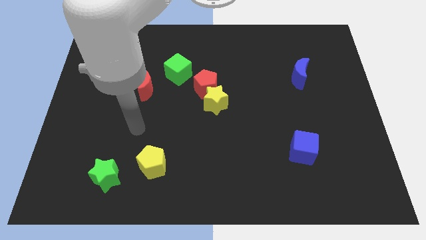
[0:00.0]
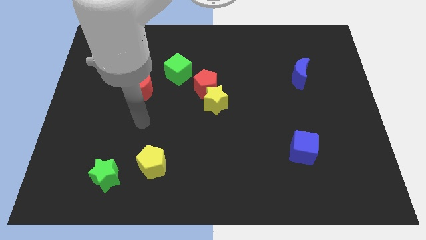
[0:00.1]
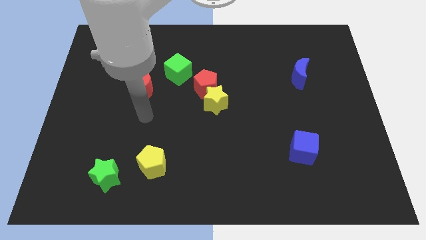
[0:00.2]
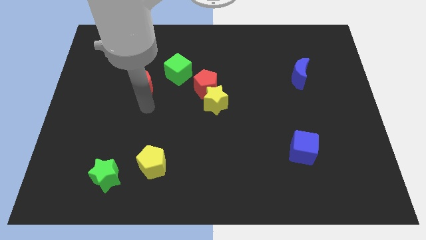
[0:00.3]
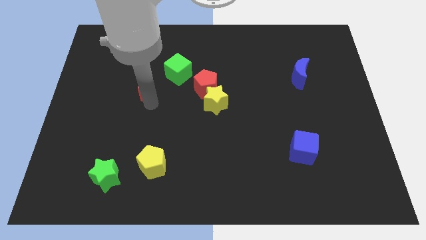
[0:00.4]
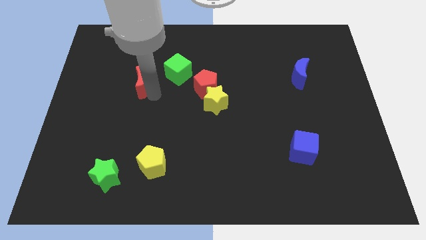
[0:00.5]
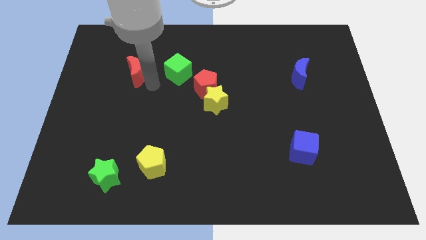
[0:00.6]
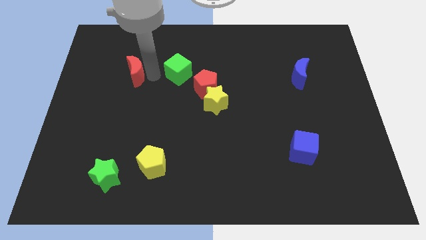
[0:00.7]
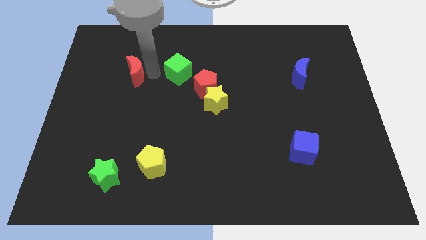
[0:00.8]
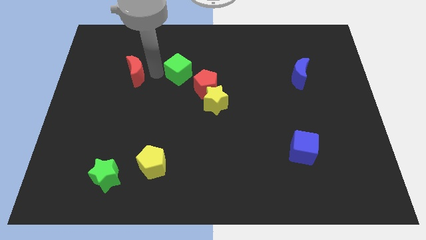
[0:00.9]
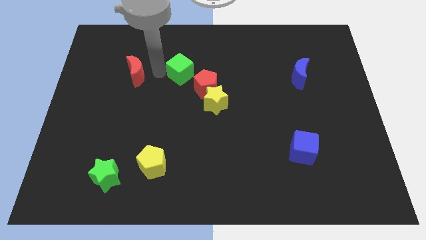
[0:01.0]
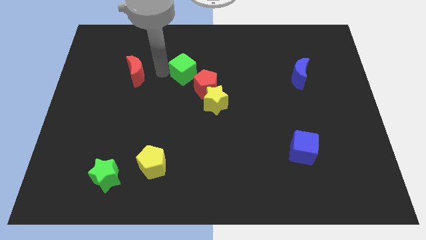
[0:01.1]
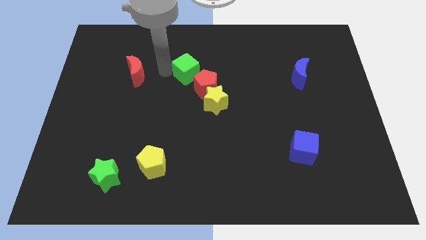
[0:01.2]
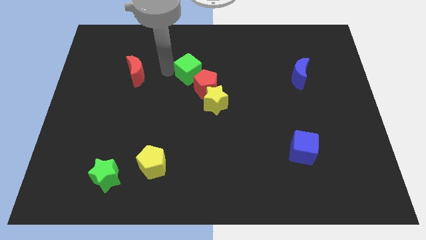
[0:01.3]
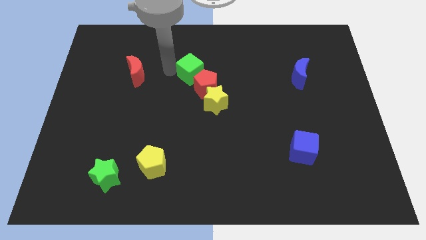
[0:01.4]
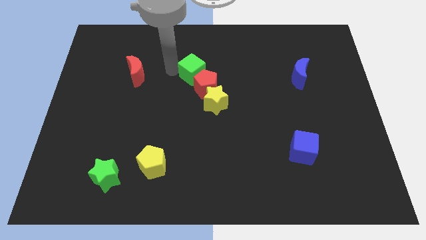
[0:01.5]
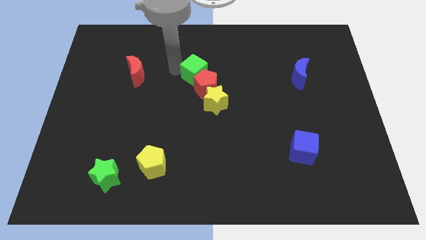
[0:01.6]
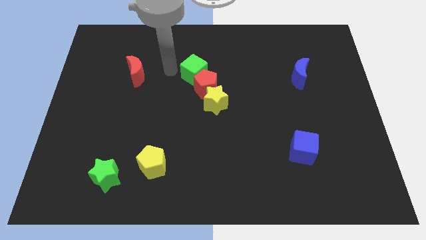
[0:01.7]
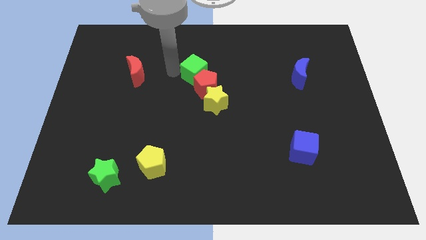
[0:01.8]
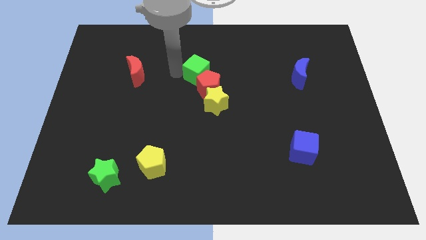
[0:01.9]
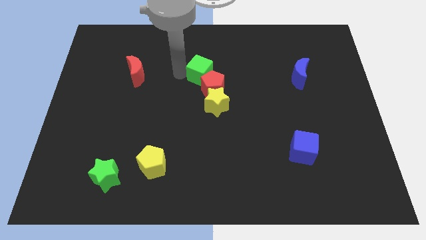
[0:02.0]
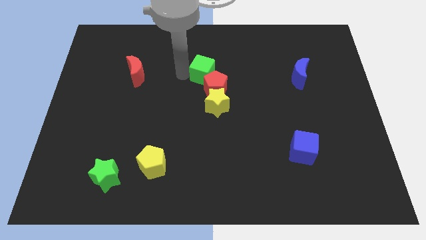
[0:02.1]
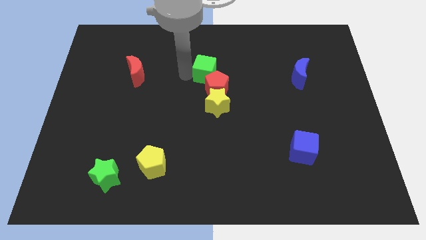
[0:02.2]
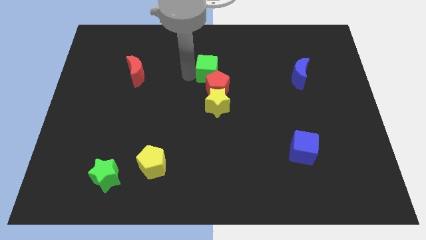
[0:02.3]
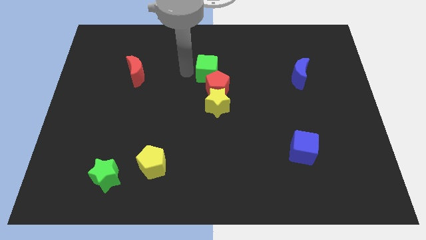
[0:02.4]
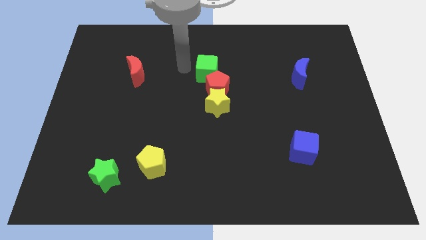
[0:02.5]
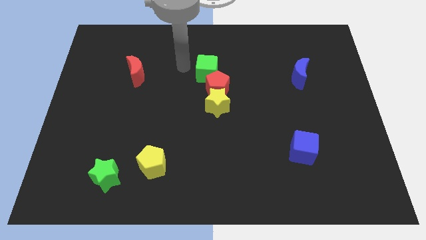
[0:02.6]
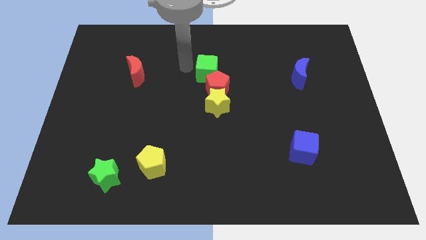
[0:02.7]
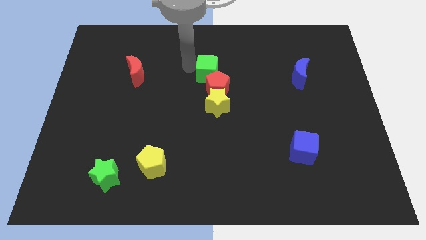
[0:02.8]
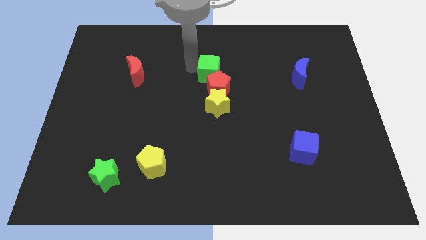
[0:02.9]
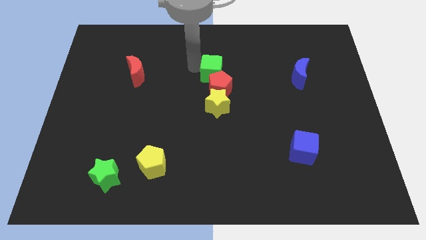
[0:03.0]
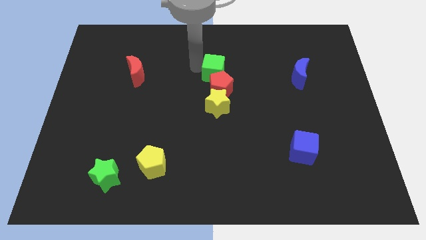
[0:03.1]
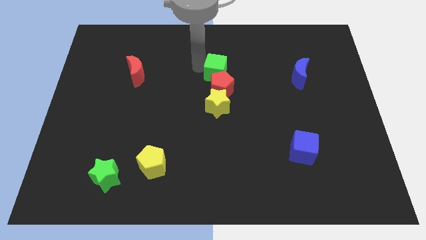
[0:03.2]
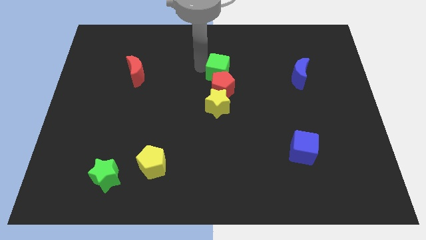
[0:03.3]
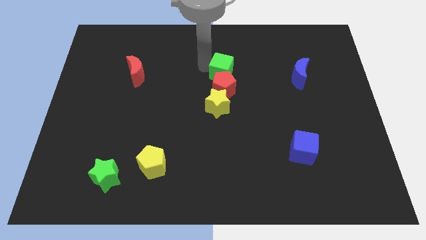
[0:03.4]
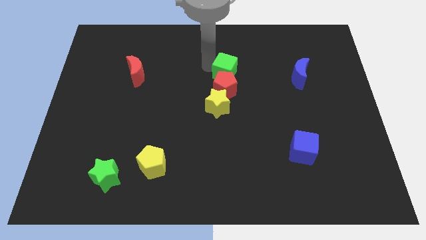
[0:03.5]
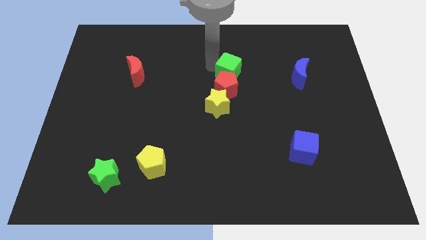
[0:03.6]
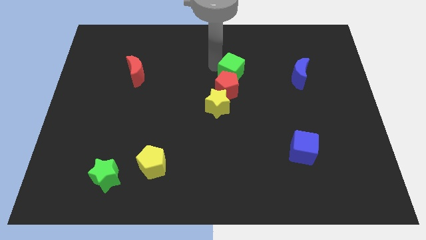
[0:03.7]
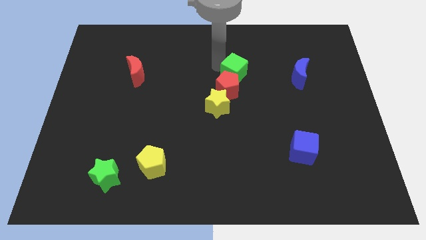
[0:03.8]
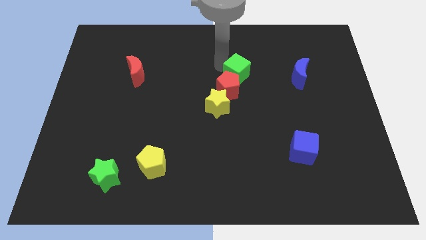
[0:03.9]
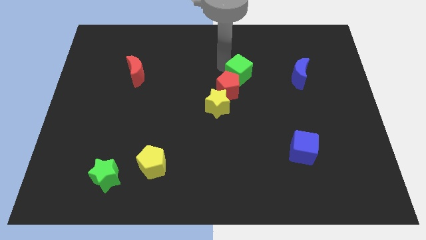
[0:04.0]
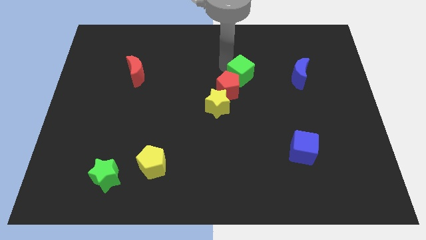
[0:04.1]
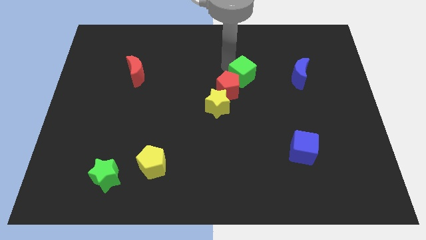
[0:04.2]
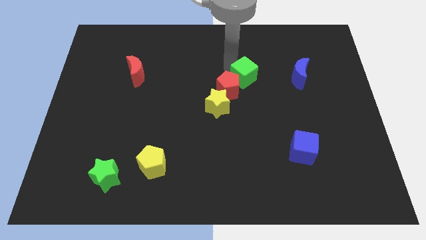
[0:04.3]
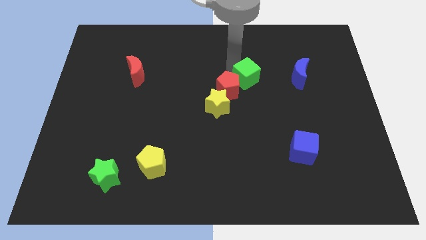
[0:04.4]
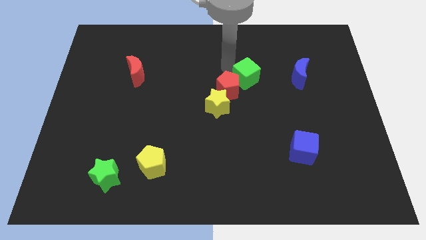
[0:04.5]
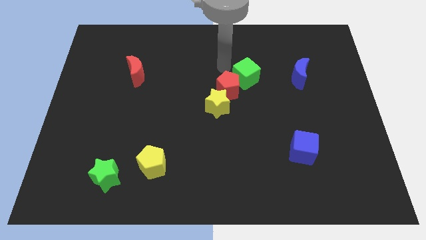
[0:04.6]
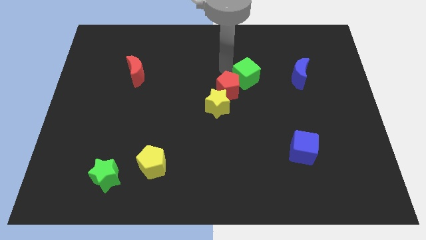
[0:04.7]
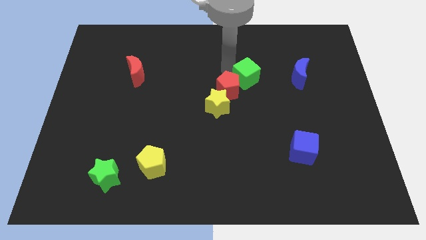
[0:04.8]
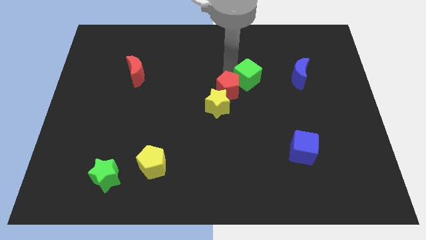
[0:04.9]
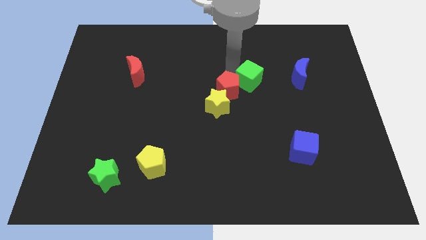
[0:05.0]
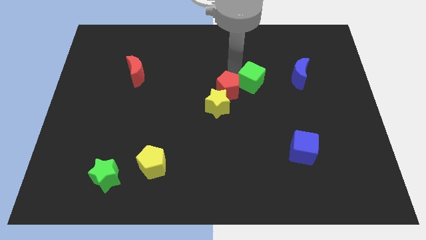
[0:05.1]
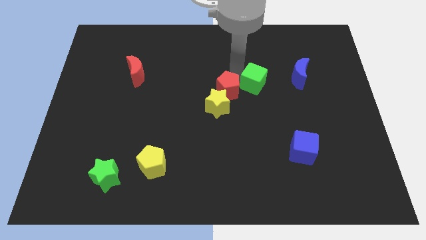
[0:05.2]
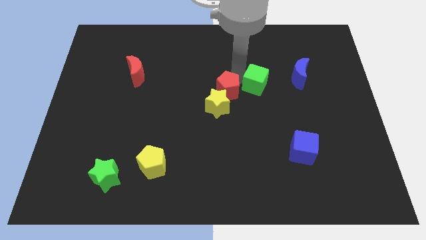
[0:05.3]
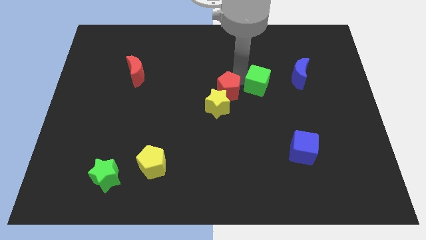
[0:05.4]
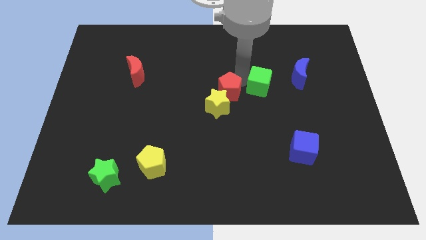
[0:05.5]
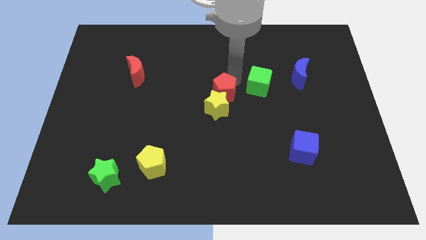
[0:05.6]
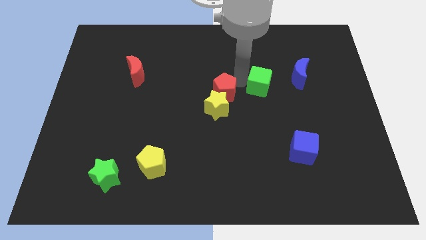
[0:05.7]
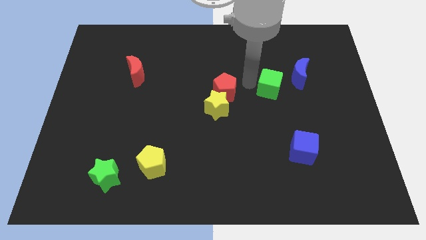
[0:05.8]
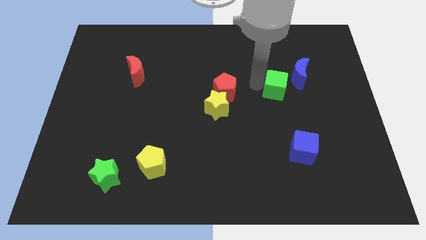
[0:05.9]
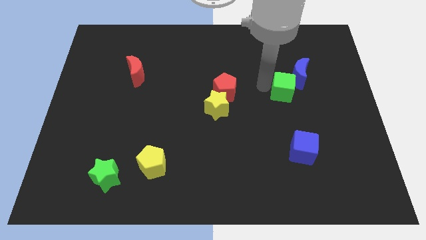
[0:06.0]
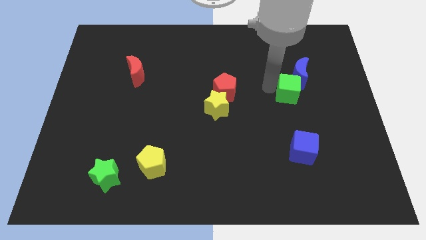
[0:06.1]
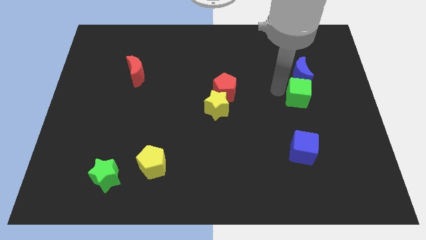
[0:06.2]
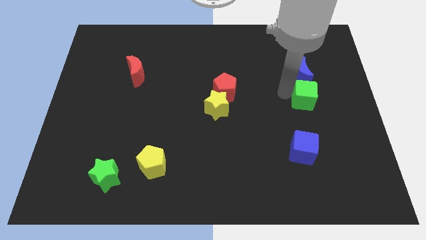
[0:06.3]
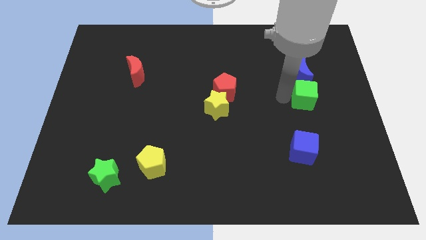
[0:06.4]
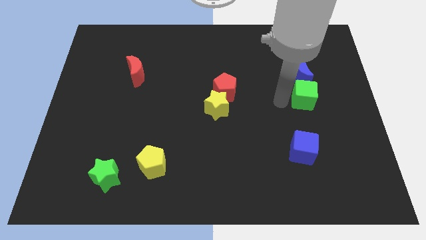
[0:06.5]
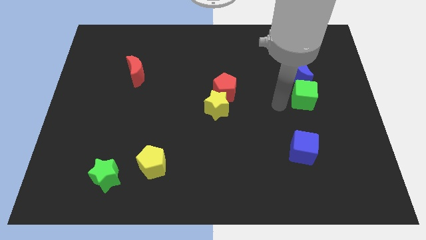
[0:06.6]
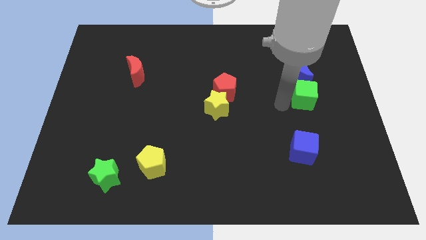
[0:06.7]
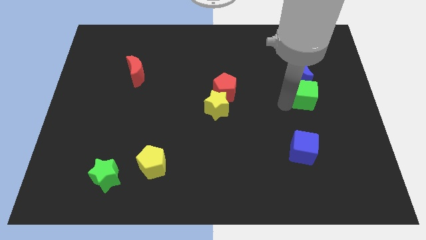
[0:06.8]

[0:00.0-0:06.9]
slide the green cube diagonally down and to the right of the blue moon

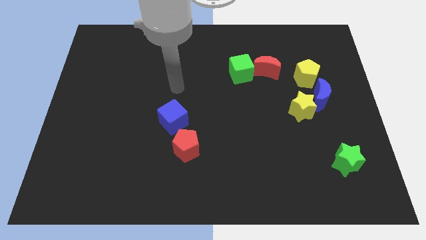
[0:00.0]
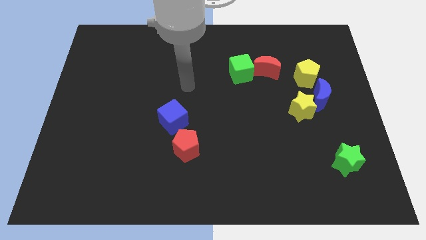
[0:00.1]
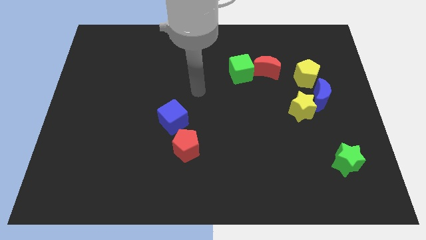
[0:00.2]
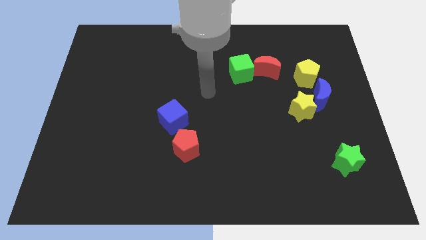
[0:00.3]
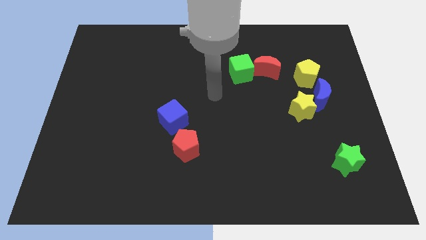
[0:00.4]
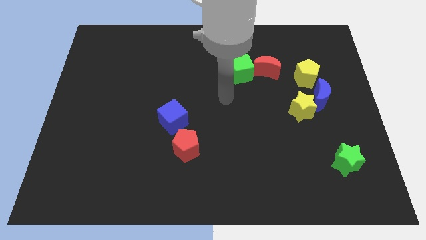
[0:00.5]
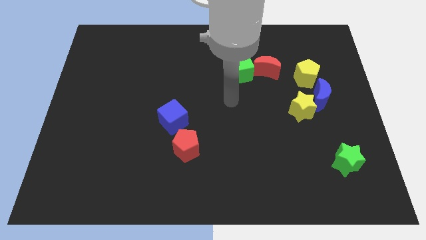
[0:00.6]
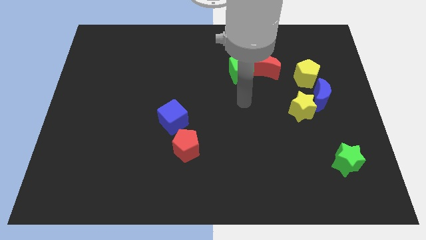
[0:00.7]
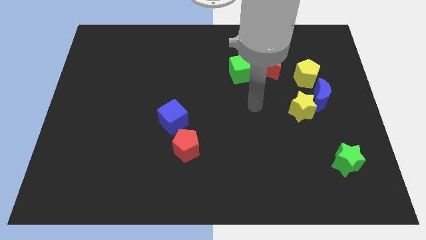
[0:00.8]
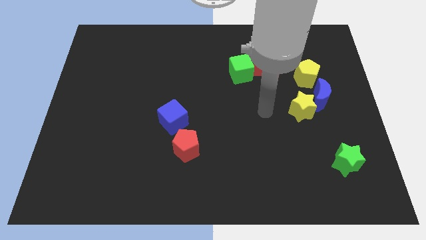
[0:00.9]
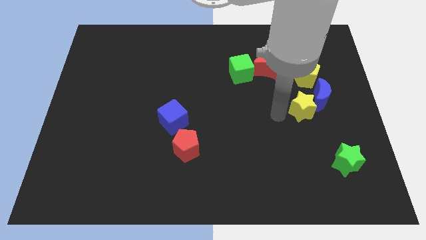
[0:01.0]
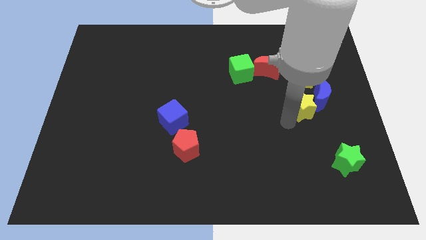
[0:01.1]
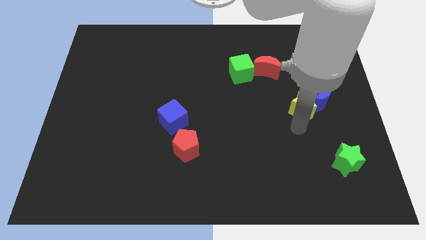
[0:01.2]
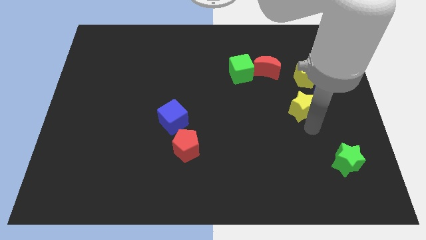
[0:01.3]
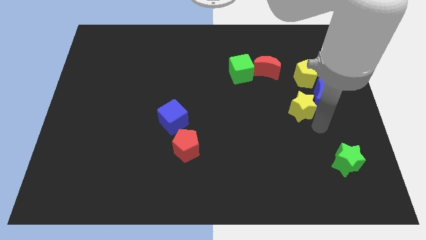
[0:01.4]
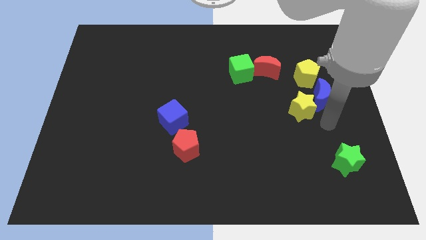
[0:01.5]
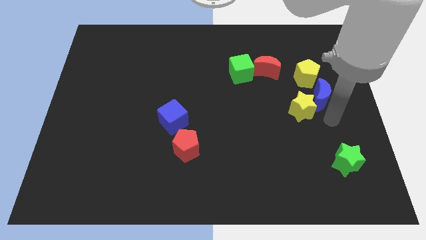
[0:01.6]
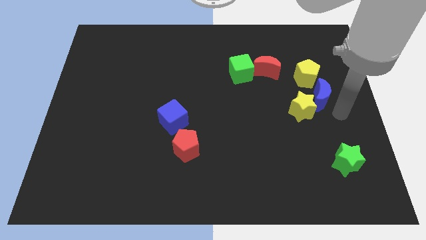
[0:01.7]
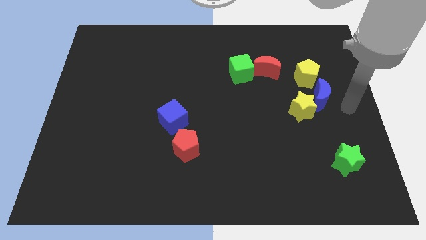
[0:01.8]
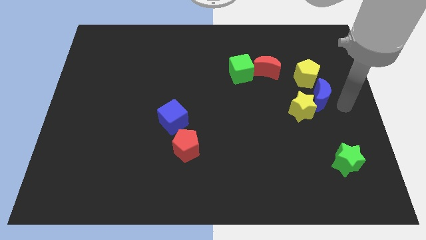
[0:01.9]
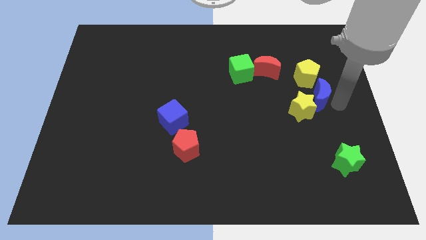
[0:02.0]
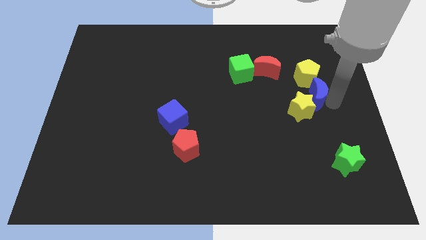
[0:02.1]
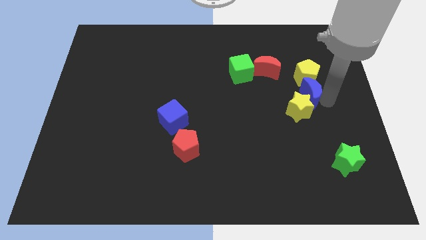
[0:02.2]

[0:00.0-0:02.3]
move the blue moon diagonally down and to the left of the yellow pentagon
